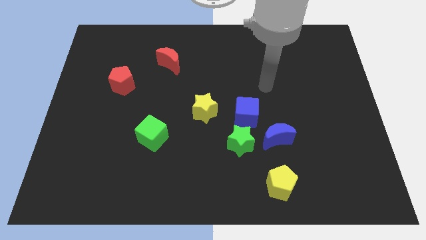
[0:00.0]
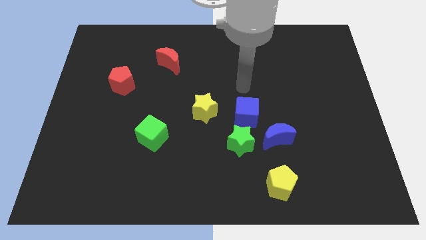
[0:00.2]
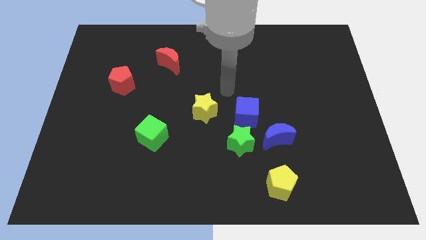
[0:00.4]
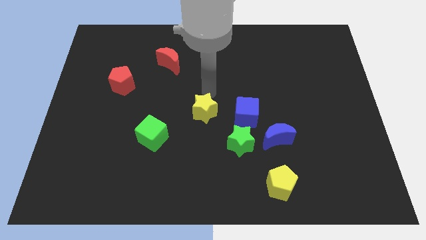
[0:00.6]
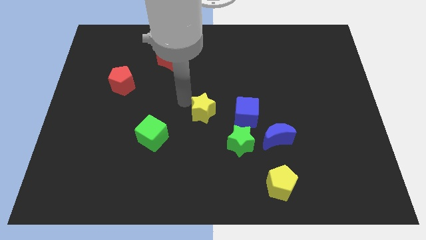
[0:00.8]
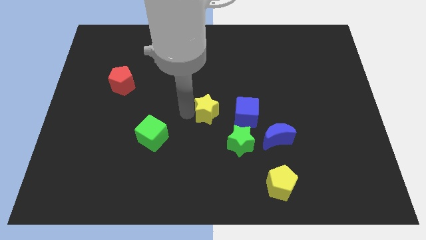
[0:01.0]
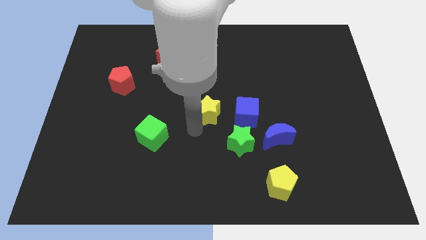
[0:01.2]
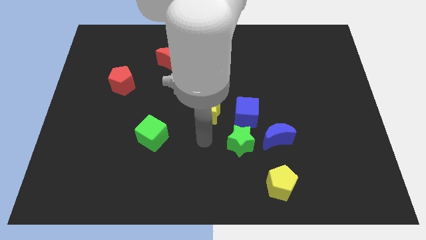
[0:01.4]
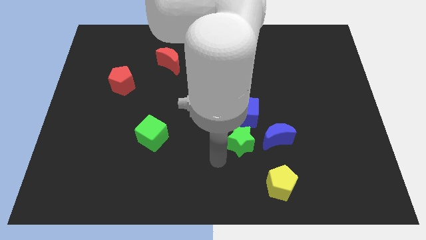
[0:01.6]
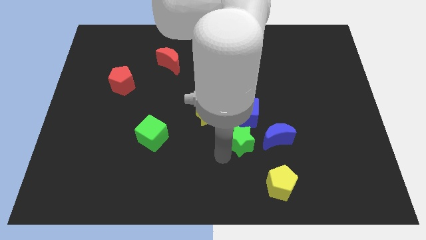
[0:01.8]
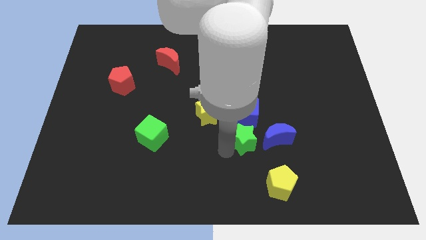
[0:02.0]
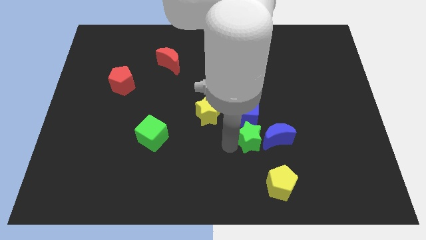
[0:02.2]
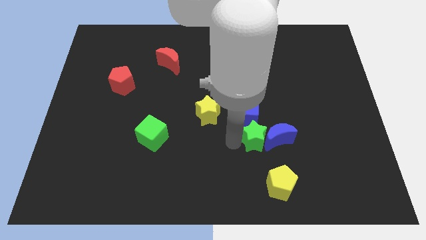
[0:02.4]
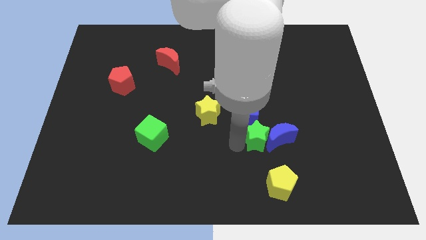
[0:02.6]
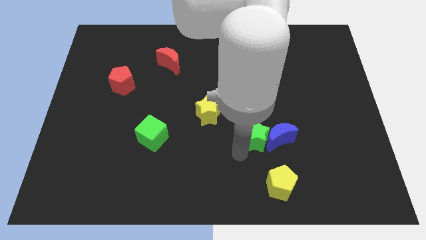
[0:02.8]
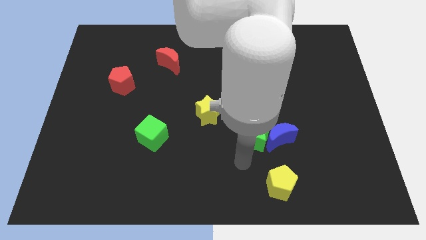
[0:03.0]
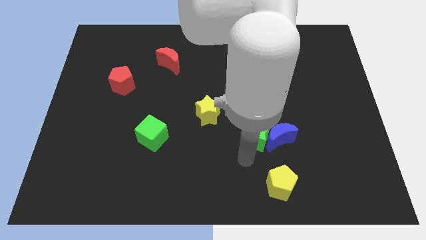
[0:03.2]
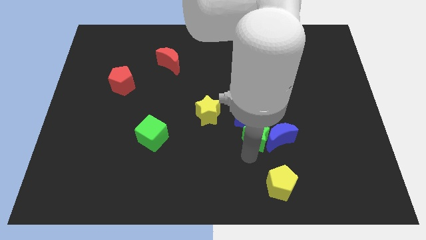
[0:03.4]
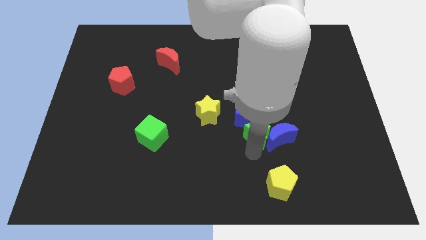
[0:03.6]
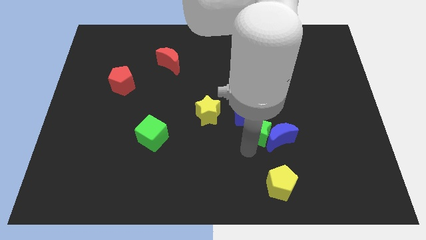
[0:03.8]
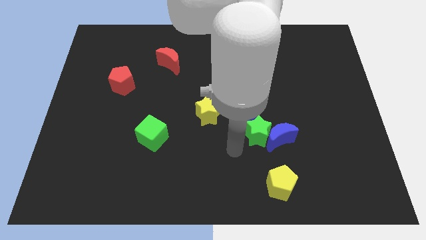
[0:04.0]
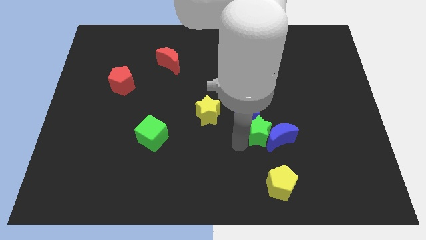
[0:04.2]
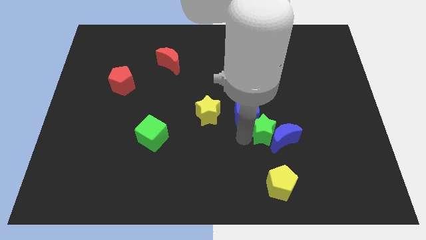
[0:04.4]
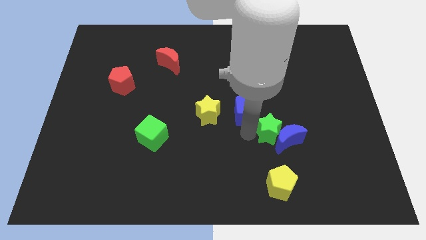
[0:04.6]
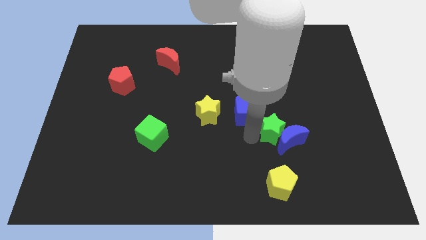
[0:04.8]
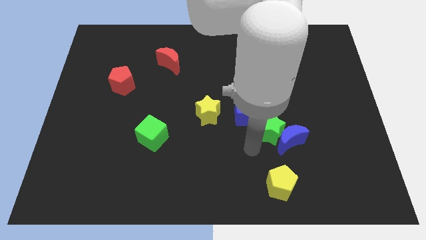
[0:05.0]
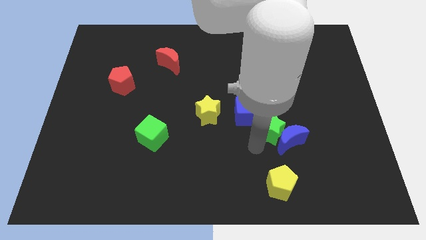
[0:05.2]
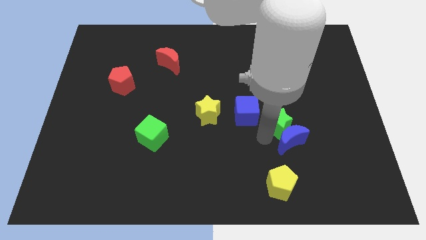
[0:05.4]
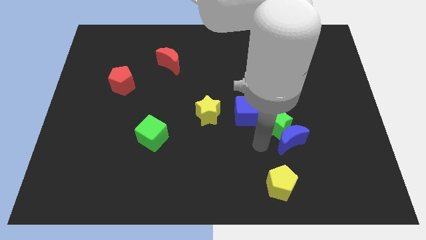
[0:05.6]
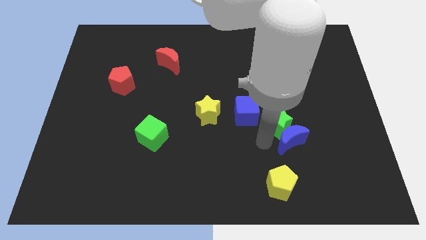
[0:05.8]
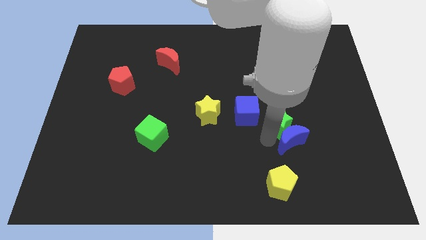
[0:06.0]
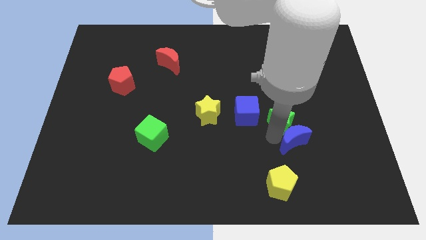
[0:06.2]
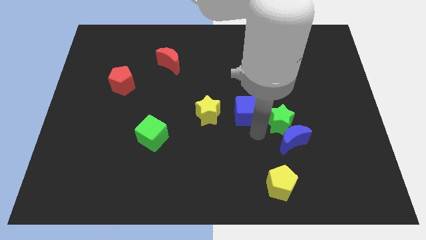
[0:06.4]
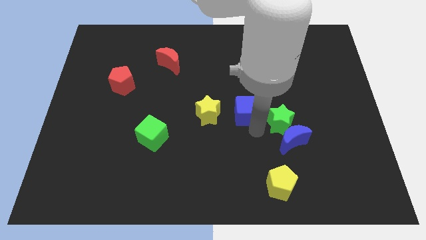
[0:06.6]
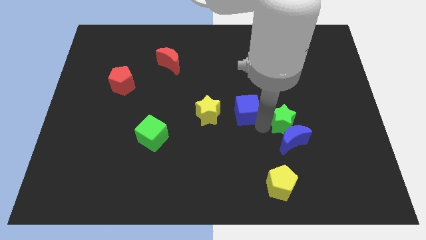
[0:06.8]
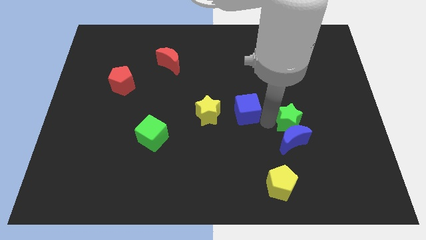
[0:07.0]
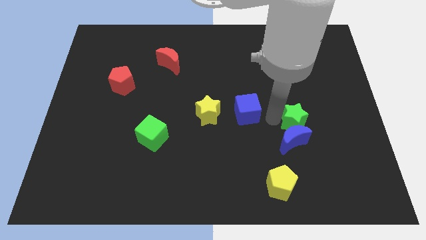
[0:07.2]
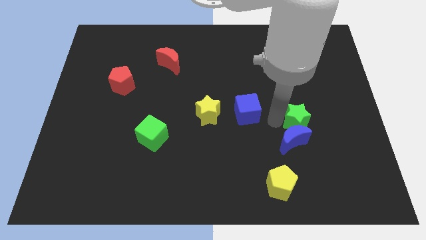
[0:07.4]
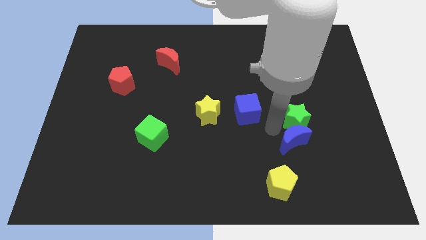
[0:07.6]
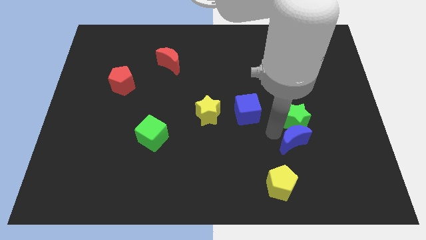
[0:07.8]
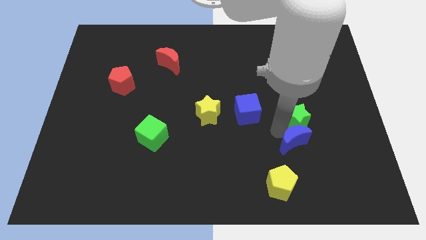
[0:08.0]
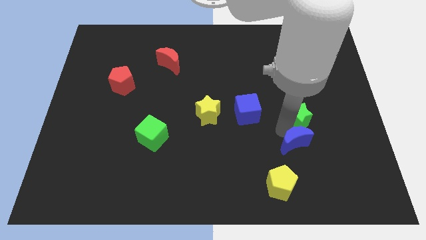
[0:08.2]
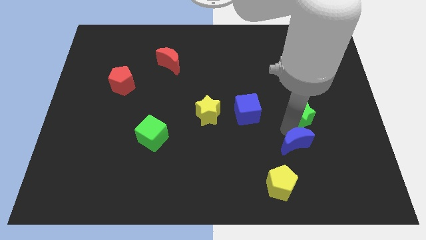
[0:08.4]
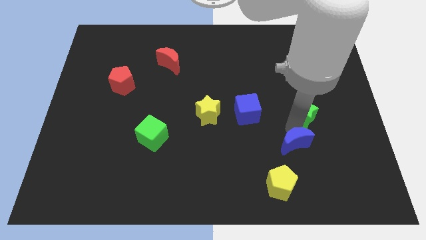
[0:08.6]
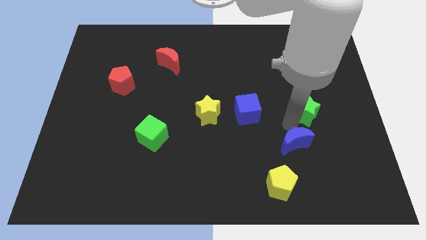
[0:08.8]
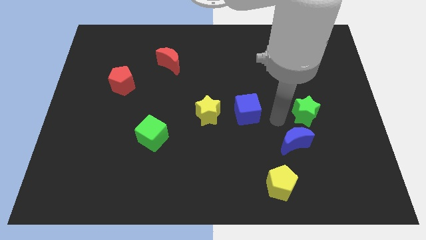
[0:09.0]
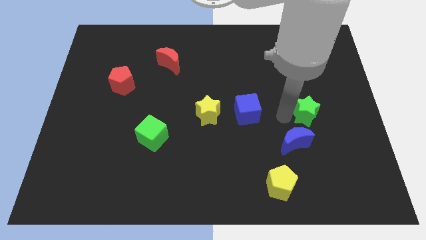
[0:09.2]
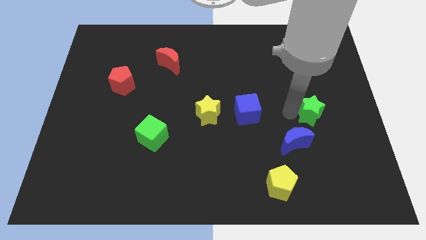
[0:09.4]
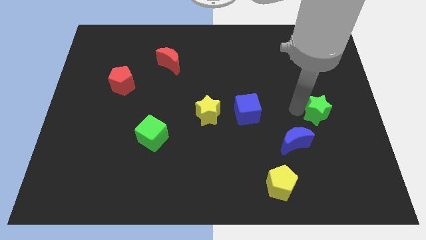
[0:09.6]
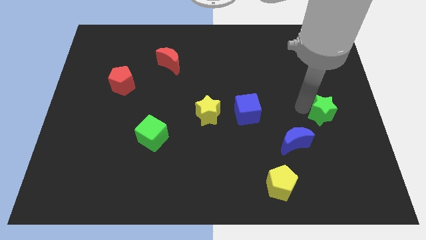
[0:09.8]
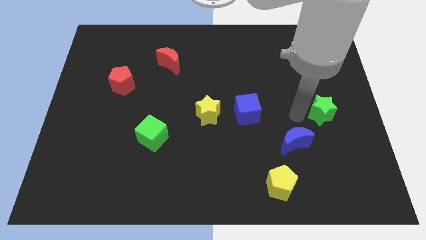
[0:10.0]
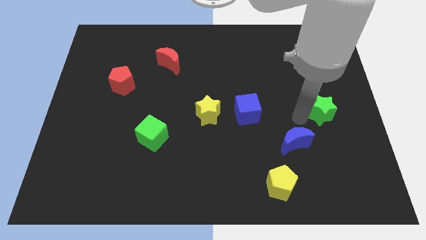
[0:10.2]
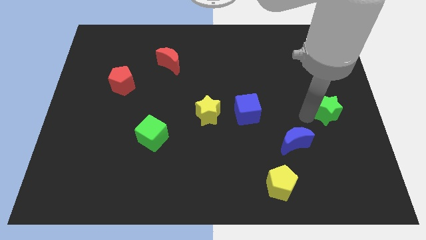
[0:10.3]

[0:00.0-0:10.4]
push the green star to the right side

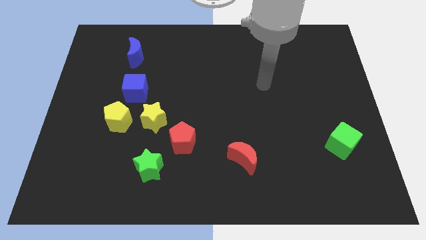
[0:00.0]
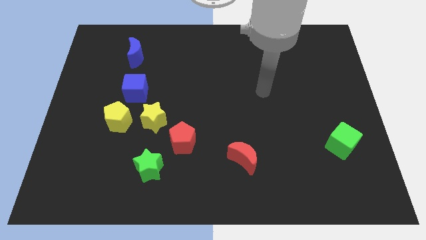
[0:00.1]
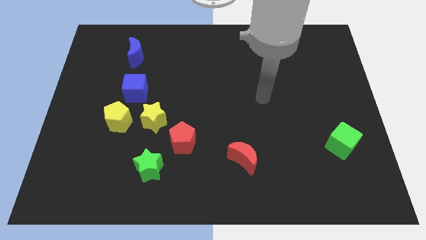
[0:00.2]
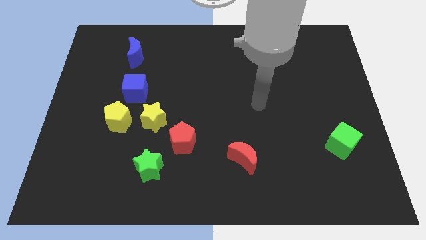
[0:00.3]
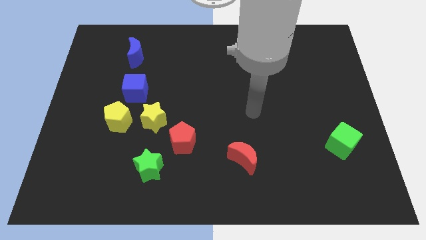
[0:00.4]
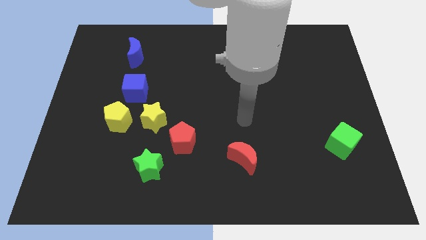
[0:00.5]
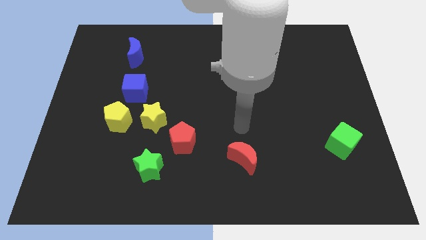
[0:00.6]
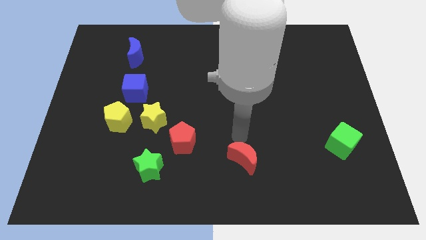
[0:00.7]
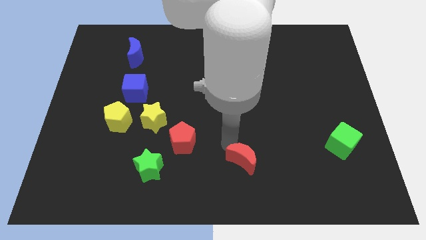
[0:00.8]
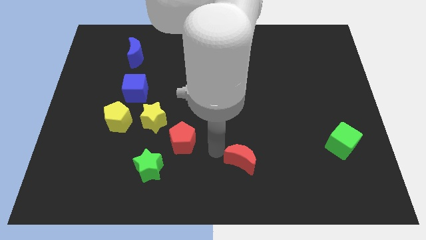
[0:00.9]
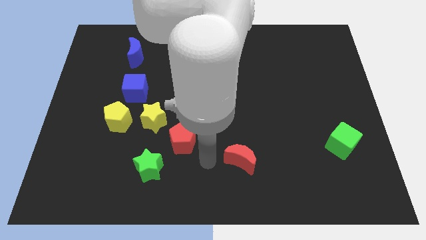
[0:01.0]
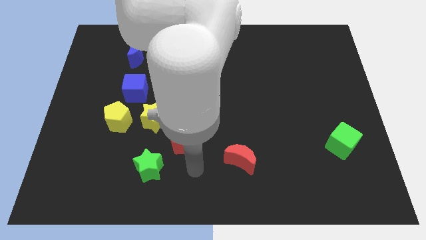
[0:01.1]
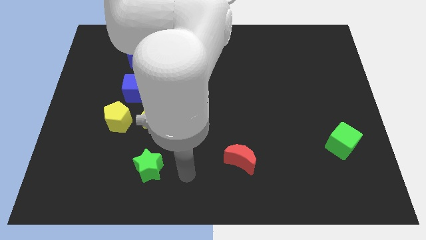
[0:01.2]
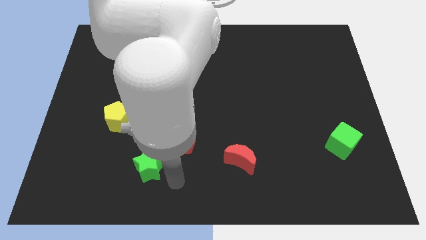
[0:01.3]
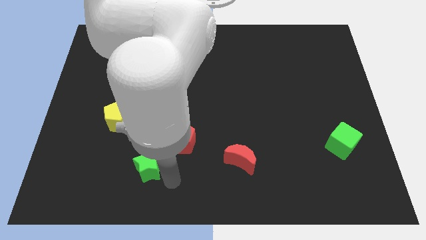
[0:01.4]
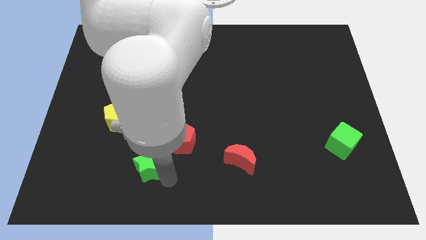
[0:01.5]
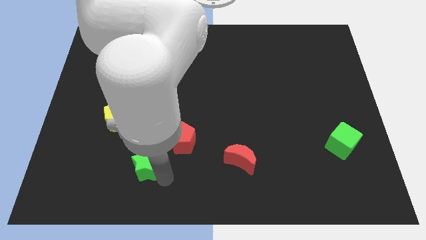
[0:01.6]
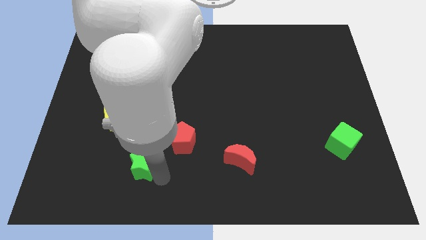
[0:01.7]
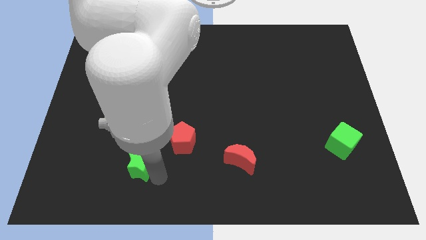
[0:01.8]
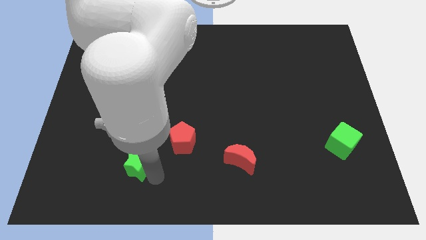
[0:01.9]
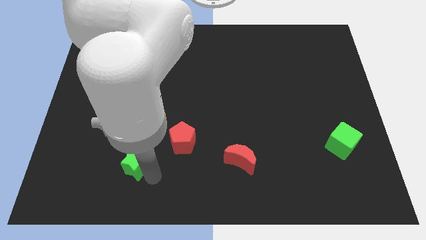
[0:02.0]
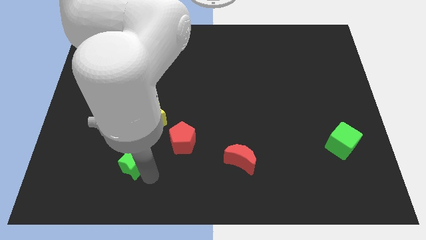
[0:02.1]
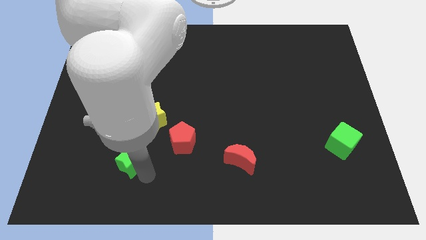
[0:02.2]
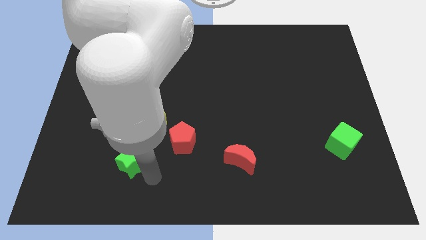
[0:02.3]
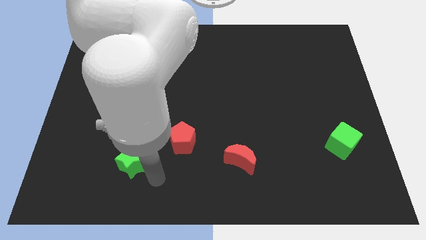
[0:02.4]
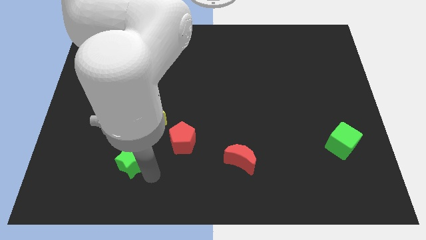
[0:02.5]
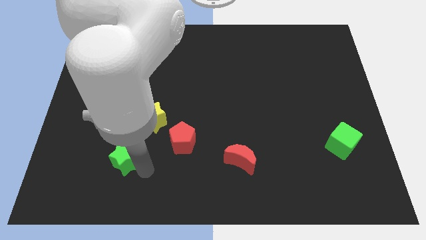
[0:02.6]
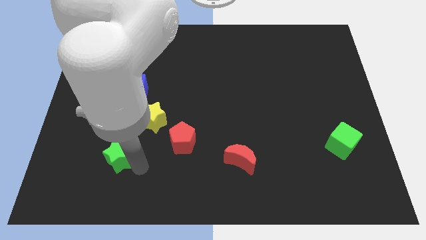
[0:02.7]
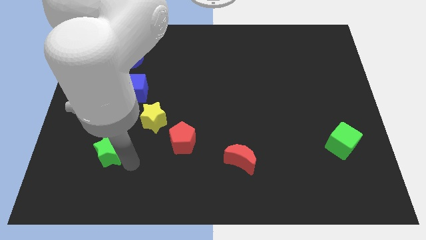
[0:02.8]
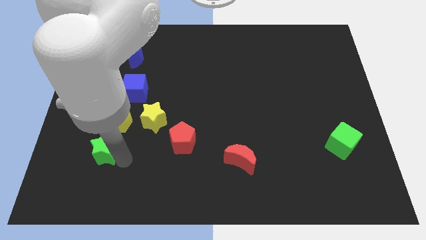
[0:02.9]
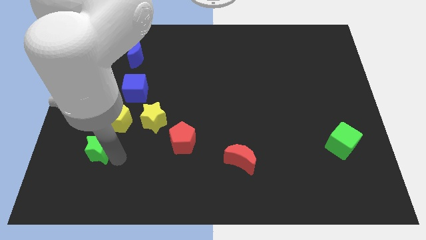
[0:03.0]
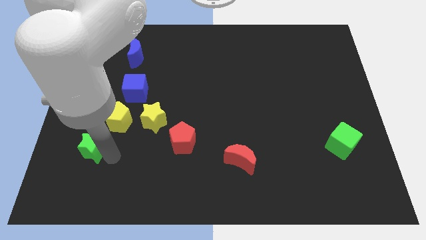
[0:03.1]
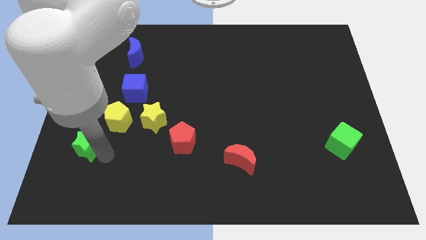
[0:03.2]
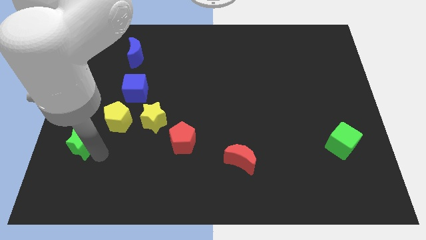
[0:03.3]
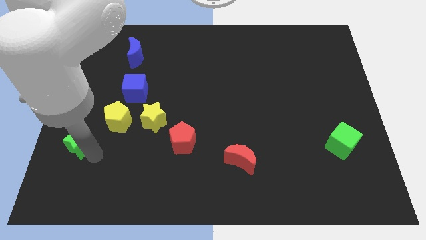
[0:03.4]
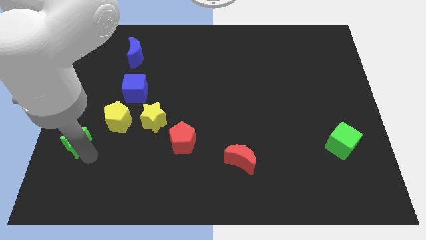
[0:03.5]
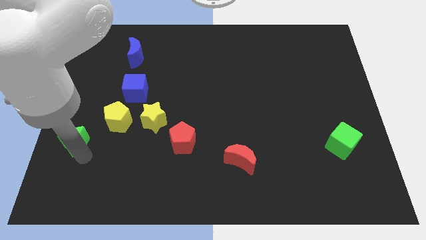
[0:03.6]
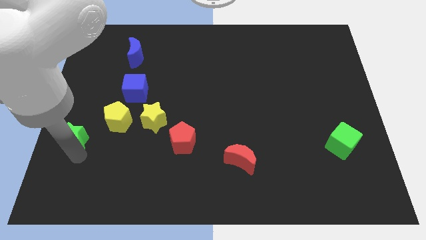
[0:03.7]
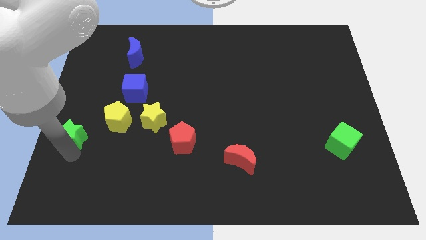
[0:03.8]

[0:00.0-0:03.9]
put the green star to the left side
